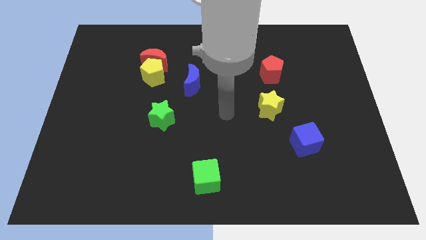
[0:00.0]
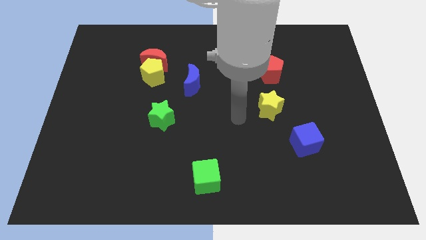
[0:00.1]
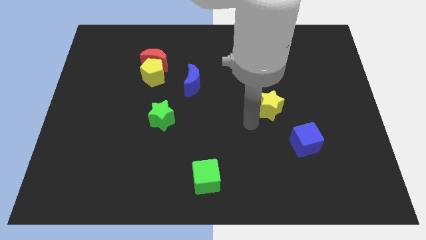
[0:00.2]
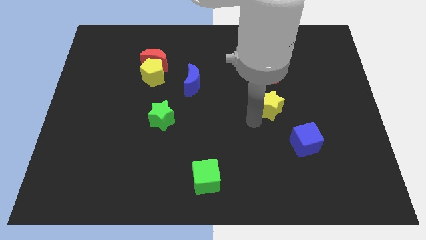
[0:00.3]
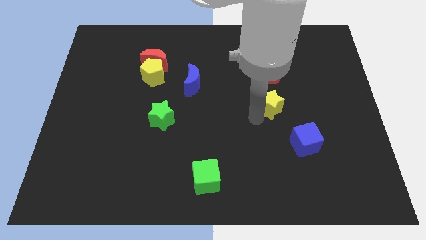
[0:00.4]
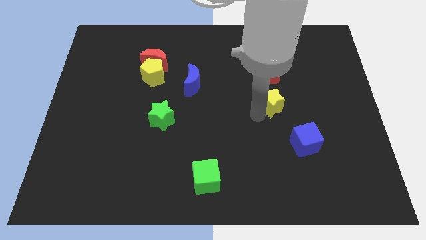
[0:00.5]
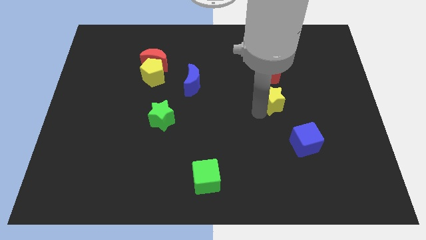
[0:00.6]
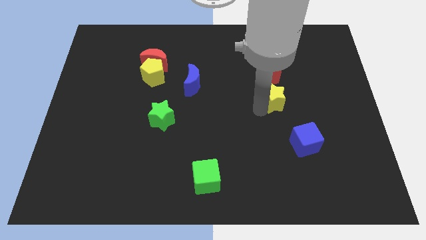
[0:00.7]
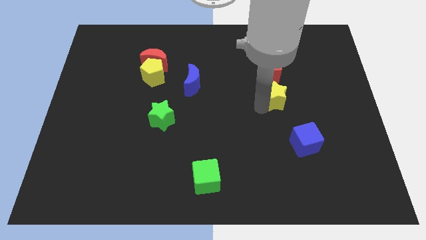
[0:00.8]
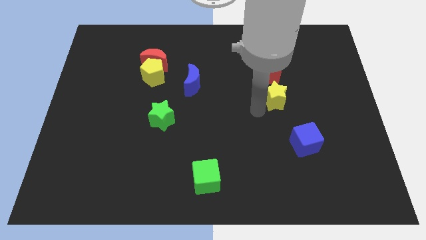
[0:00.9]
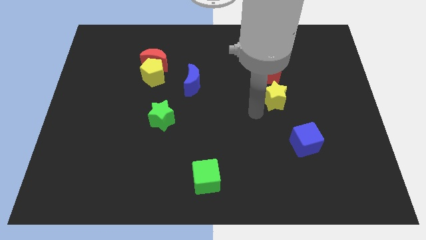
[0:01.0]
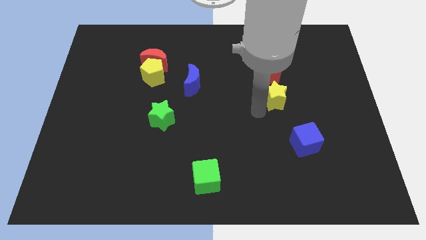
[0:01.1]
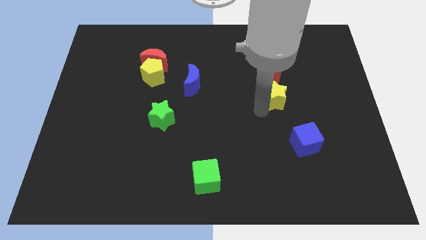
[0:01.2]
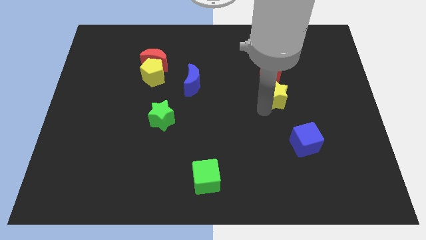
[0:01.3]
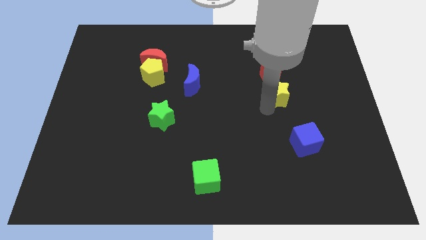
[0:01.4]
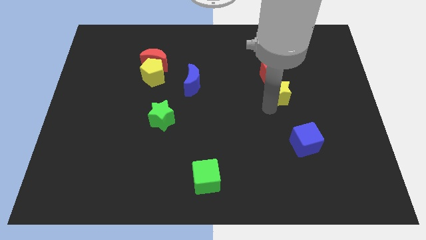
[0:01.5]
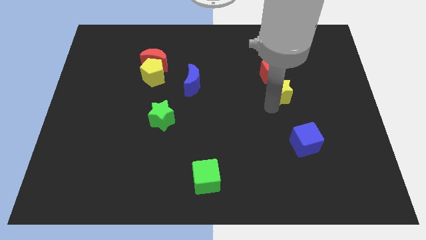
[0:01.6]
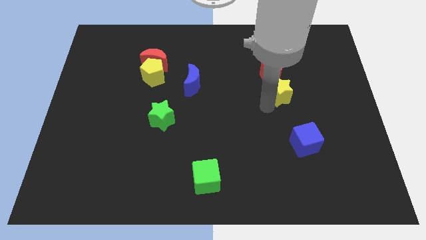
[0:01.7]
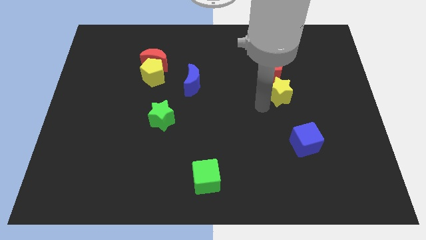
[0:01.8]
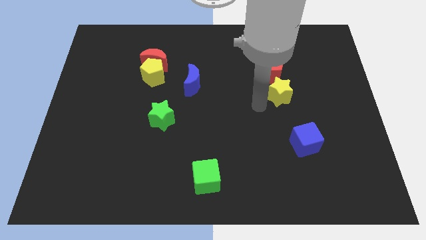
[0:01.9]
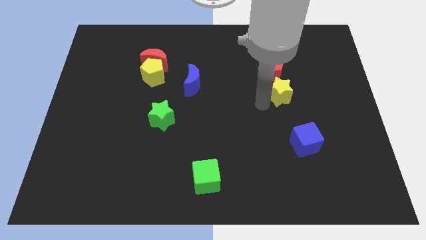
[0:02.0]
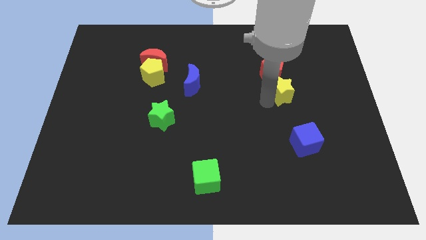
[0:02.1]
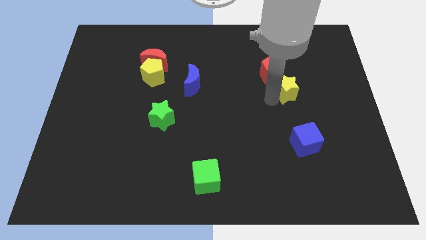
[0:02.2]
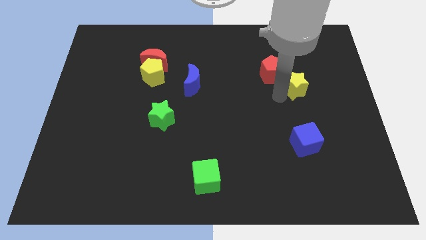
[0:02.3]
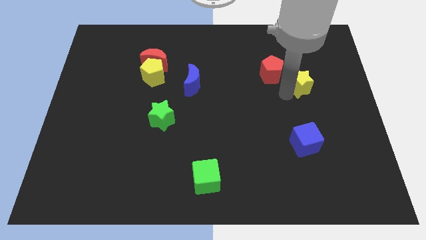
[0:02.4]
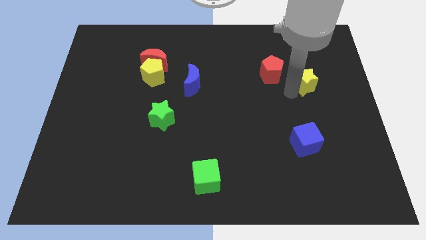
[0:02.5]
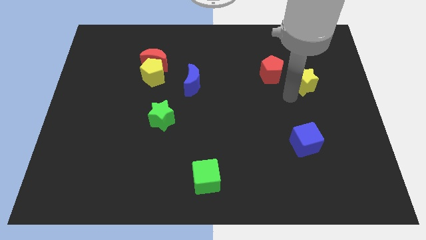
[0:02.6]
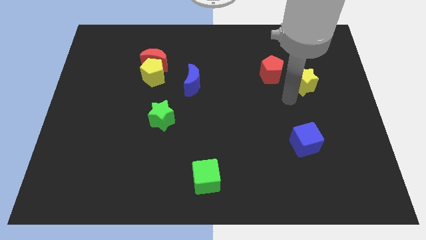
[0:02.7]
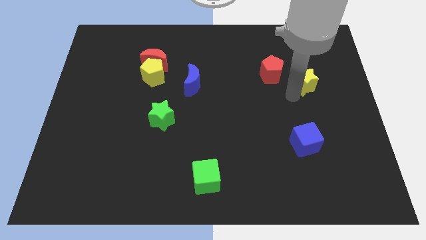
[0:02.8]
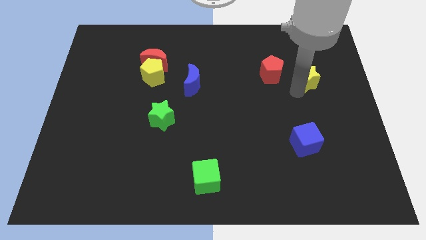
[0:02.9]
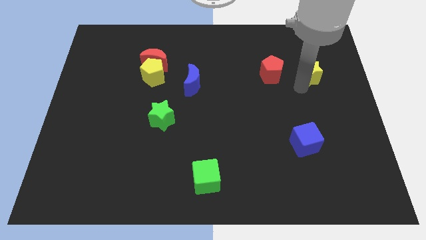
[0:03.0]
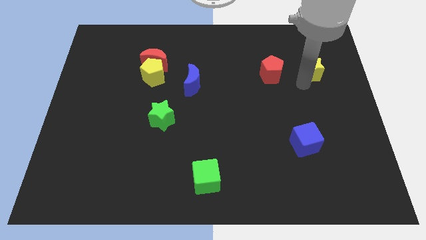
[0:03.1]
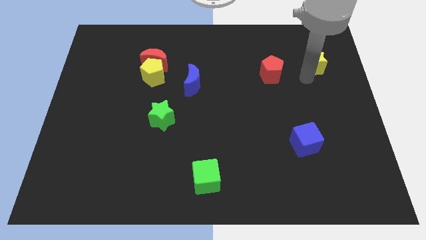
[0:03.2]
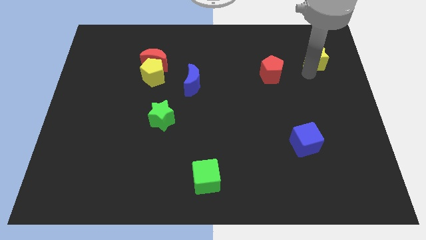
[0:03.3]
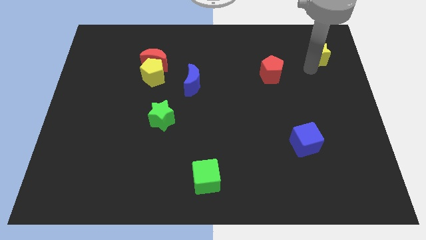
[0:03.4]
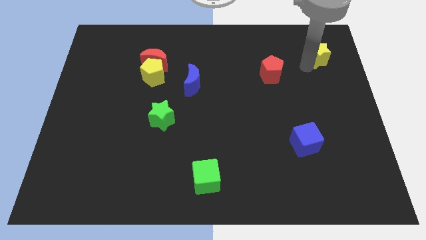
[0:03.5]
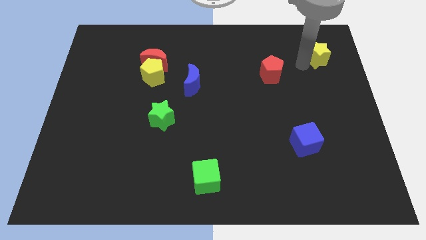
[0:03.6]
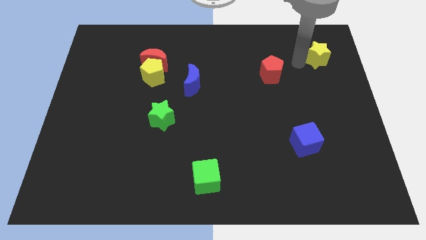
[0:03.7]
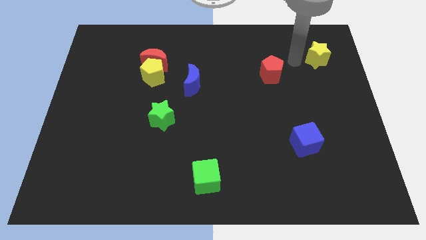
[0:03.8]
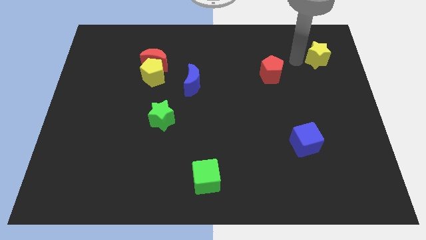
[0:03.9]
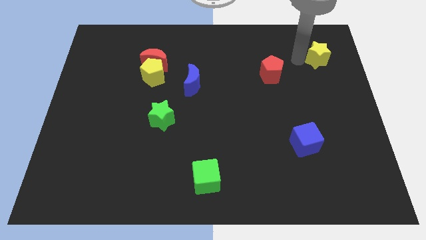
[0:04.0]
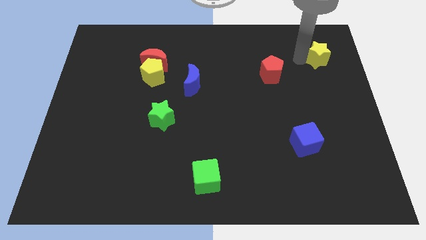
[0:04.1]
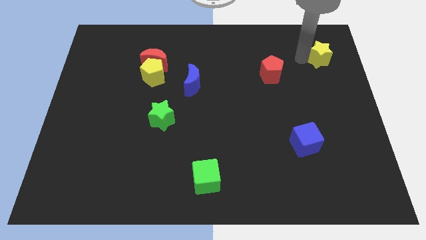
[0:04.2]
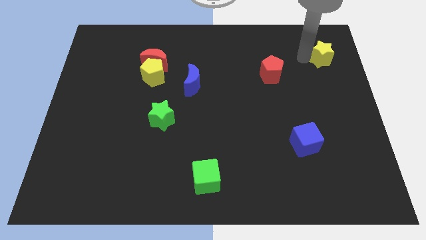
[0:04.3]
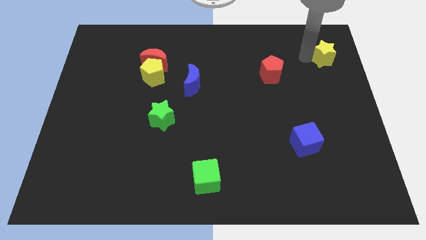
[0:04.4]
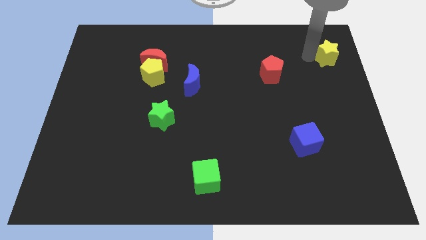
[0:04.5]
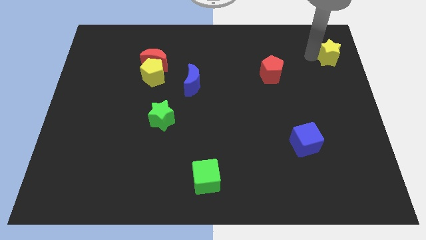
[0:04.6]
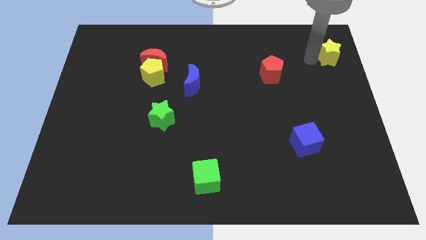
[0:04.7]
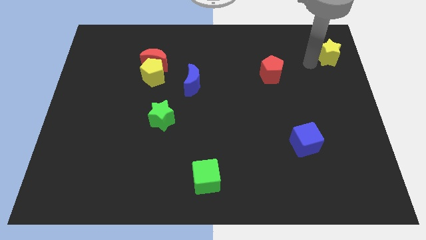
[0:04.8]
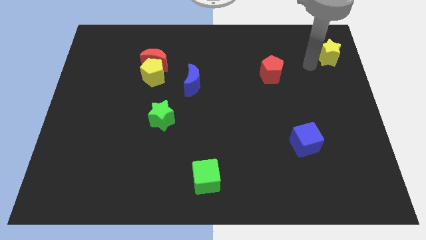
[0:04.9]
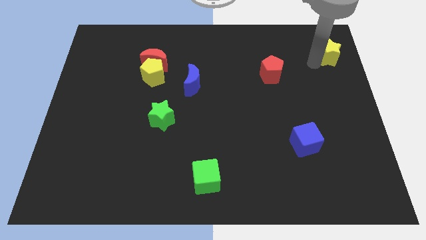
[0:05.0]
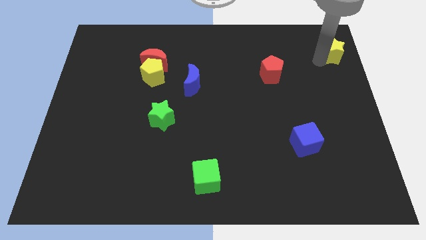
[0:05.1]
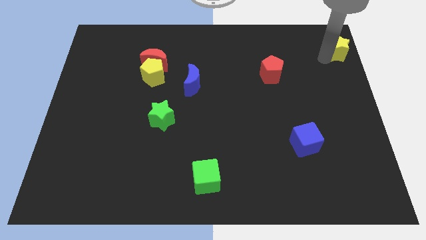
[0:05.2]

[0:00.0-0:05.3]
push the yellow star to the top right

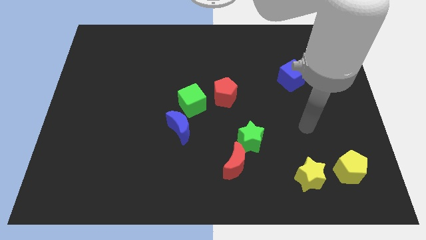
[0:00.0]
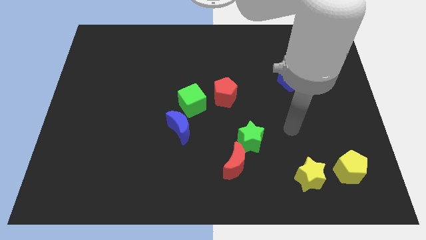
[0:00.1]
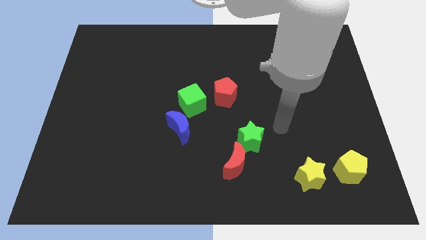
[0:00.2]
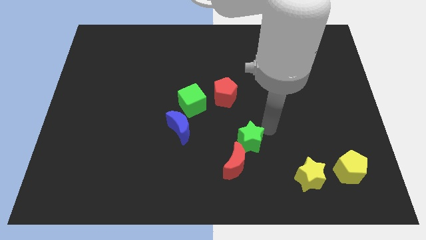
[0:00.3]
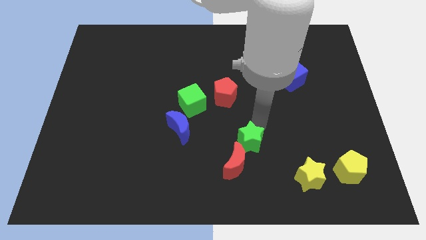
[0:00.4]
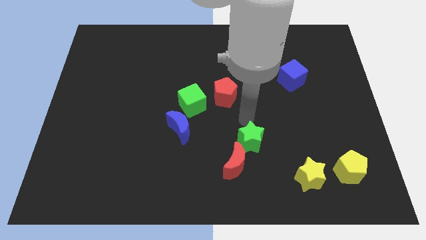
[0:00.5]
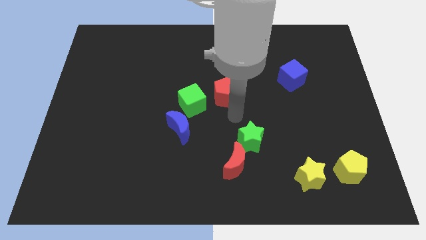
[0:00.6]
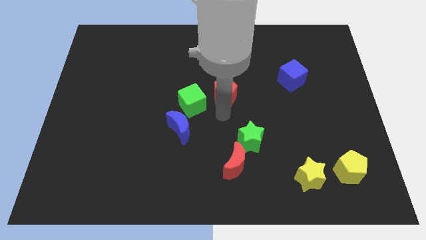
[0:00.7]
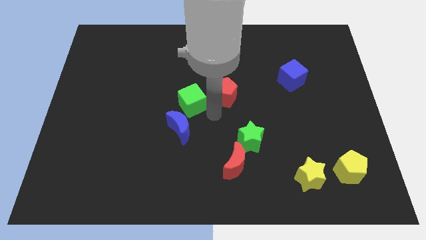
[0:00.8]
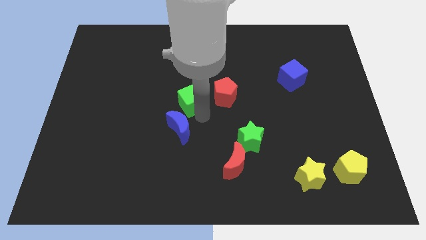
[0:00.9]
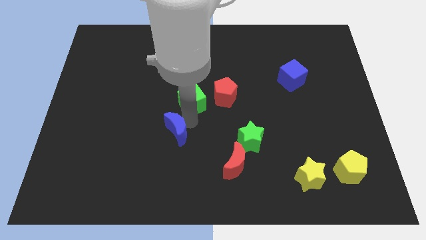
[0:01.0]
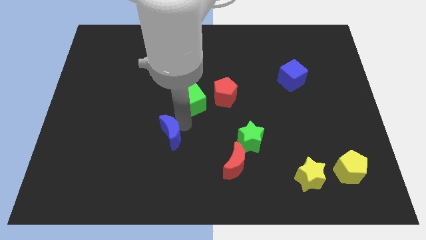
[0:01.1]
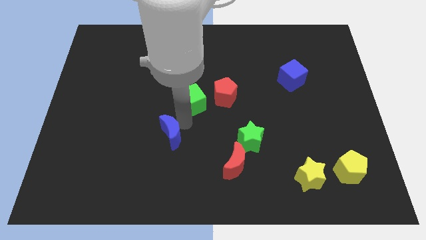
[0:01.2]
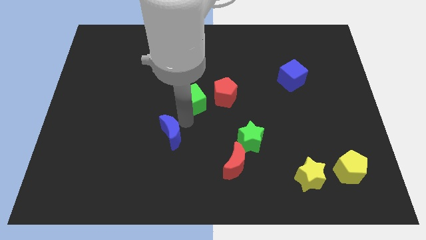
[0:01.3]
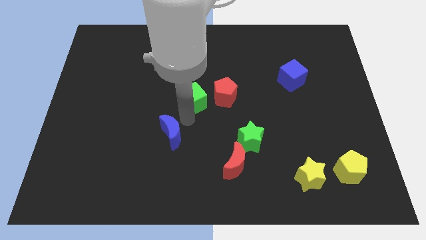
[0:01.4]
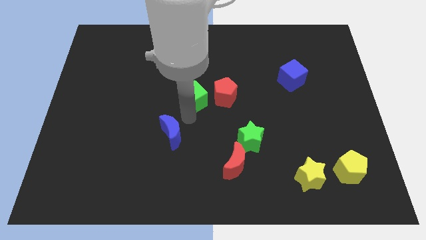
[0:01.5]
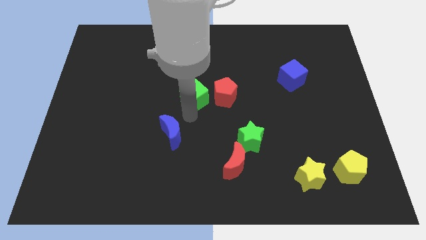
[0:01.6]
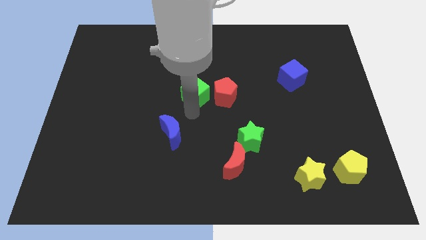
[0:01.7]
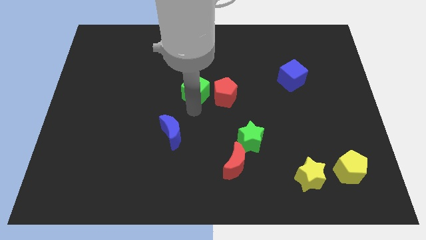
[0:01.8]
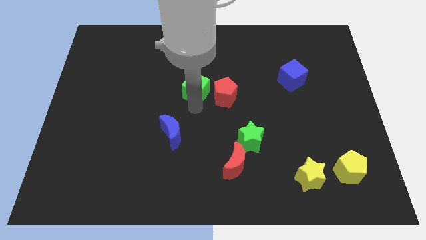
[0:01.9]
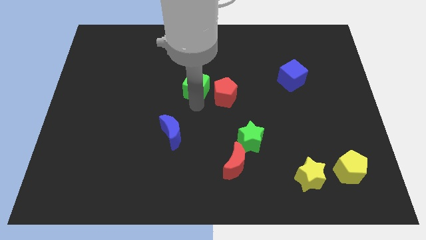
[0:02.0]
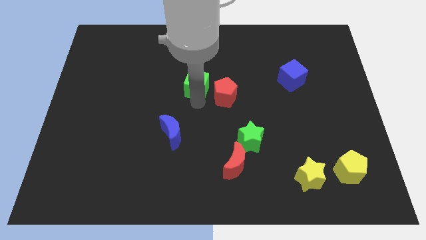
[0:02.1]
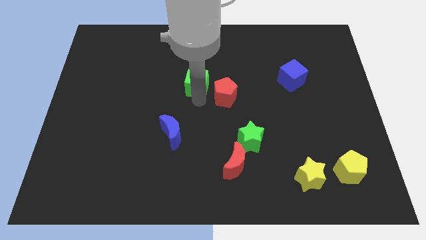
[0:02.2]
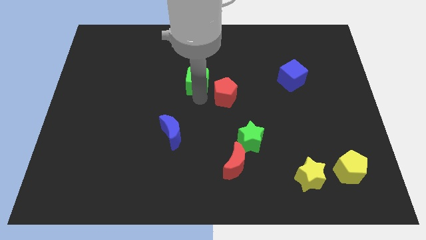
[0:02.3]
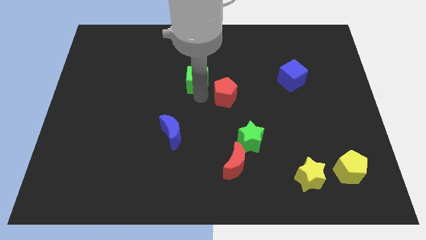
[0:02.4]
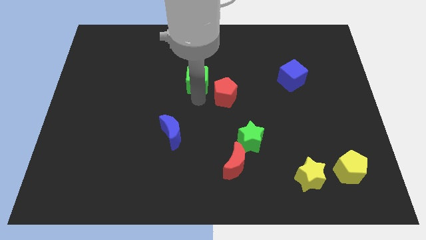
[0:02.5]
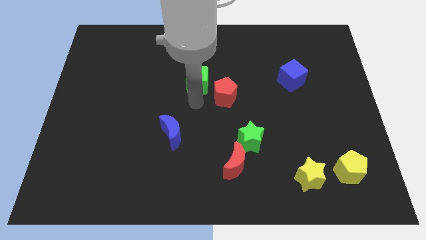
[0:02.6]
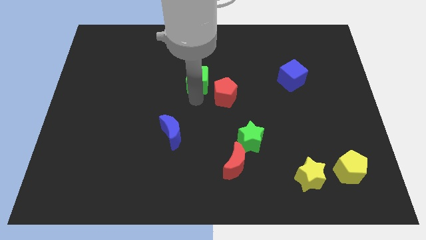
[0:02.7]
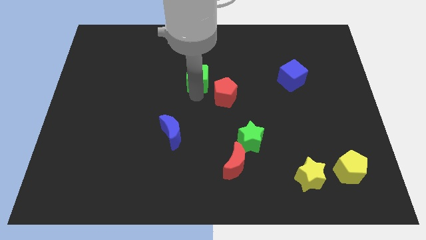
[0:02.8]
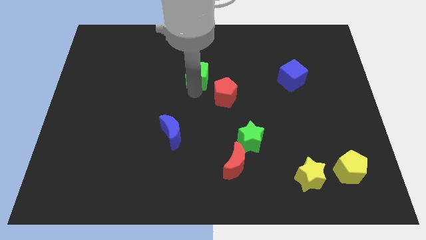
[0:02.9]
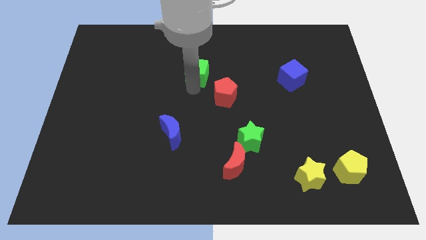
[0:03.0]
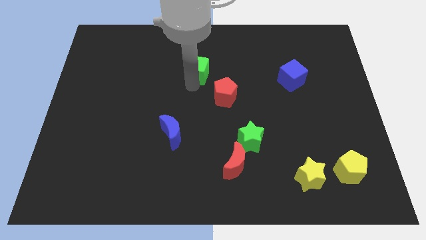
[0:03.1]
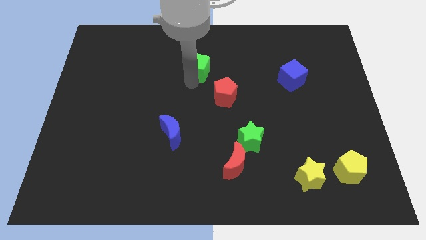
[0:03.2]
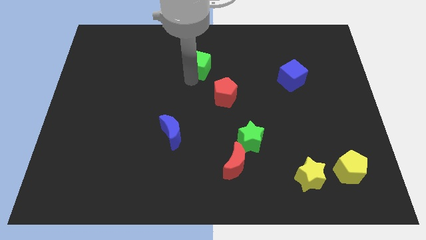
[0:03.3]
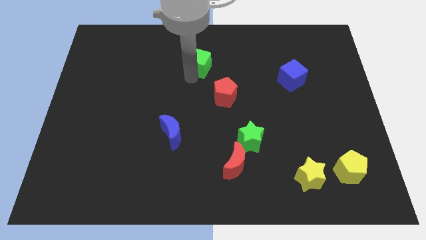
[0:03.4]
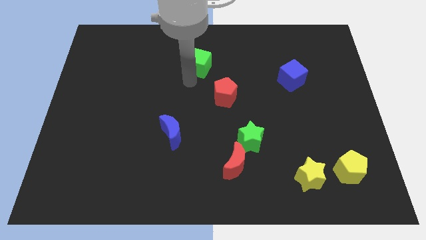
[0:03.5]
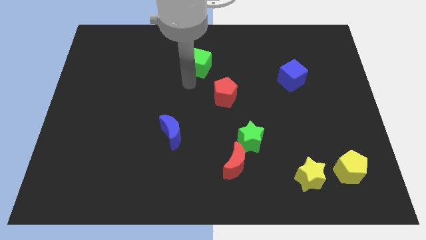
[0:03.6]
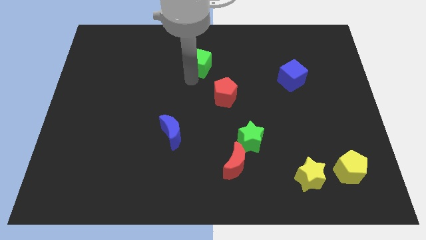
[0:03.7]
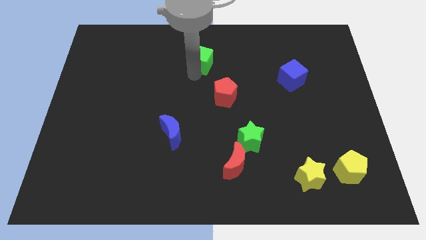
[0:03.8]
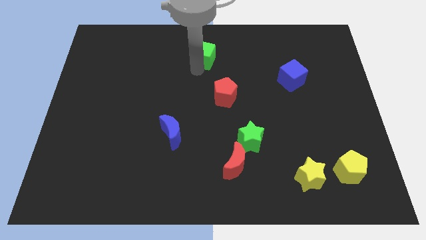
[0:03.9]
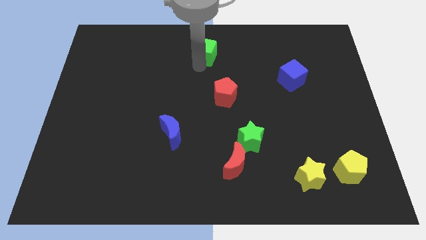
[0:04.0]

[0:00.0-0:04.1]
push the green cube to the towards your base
